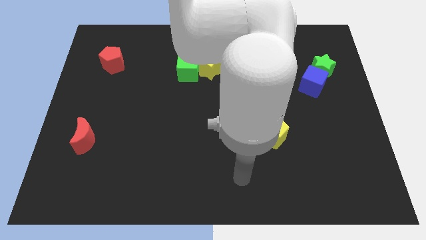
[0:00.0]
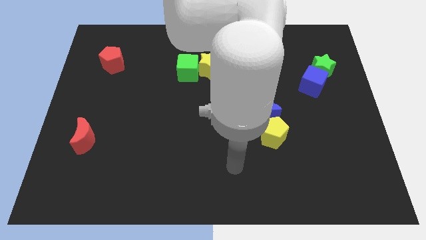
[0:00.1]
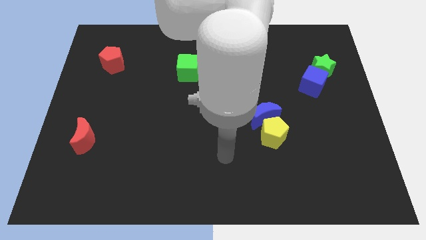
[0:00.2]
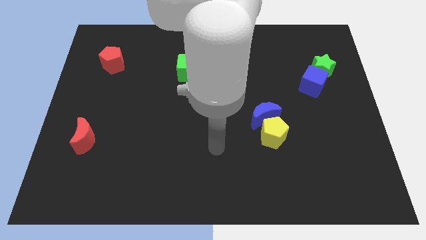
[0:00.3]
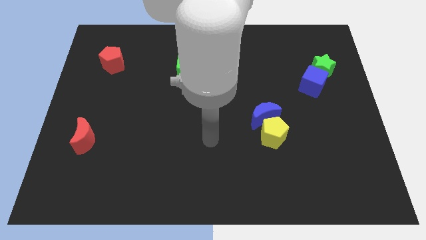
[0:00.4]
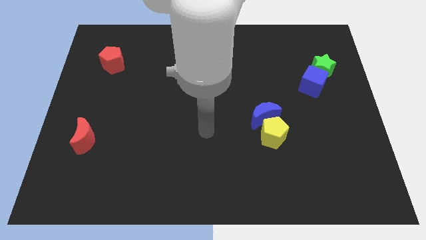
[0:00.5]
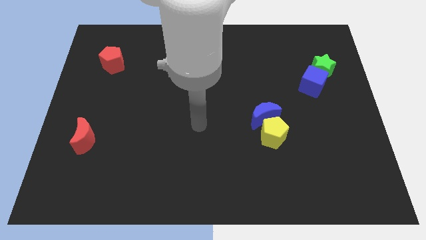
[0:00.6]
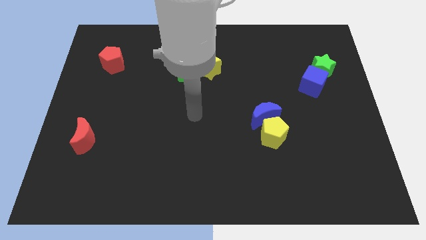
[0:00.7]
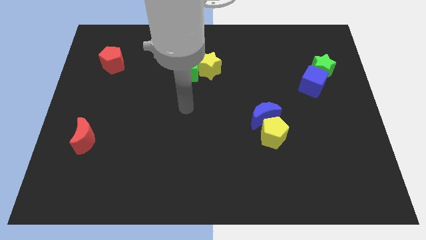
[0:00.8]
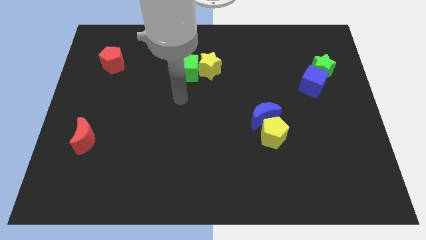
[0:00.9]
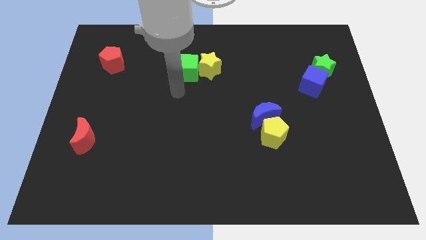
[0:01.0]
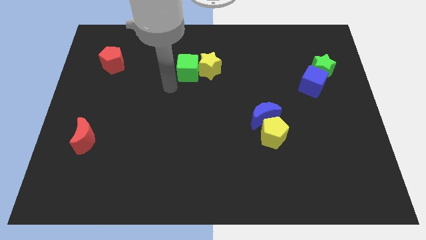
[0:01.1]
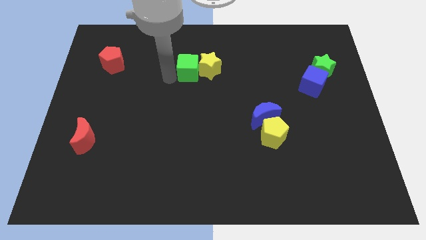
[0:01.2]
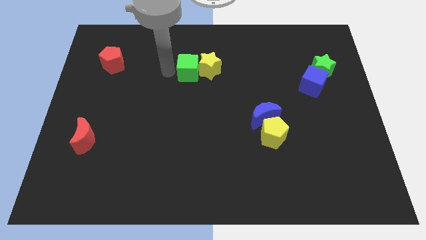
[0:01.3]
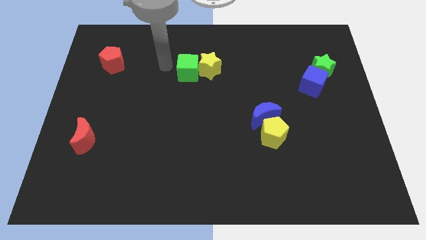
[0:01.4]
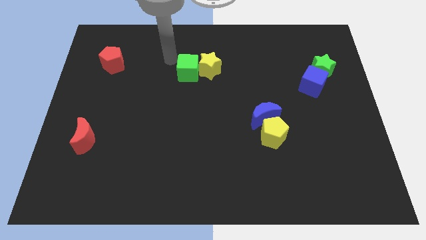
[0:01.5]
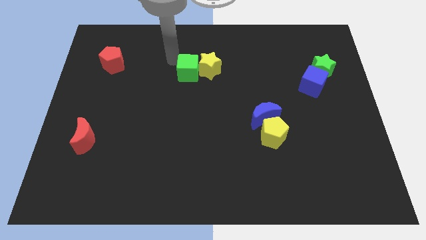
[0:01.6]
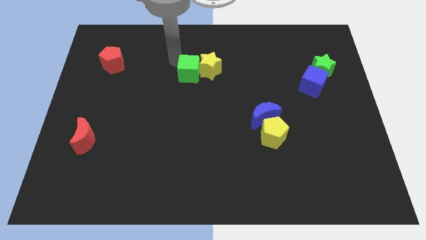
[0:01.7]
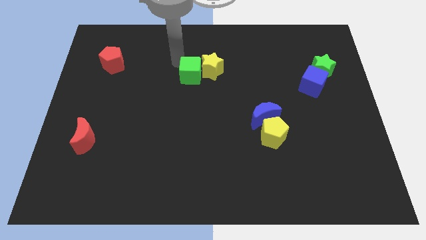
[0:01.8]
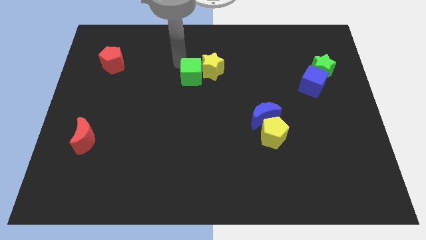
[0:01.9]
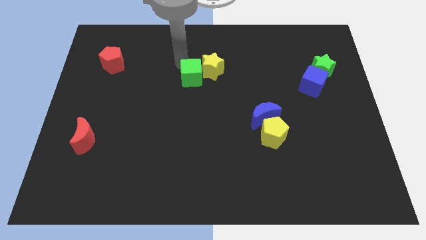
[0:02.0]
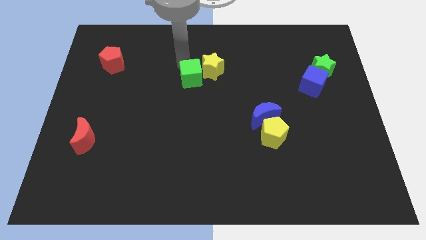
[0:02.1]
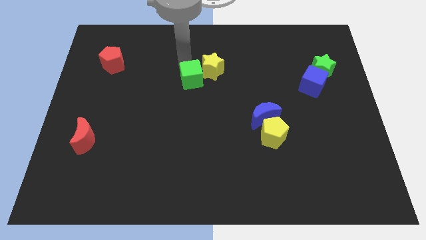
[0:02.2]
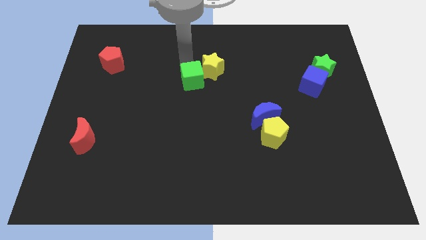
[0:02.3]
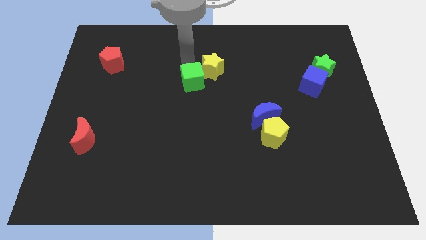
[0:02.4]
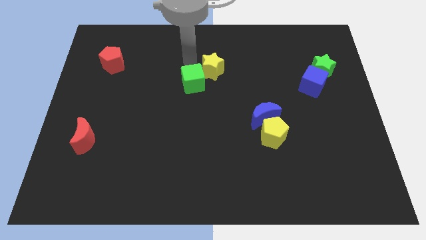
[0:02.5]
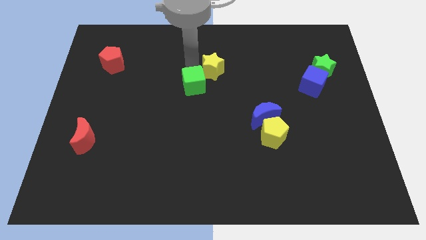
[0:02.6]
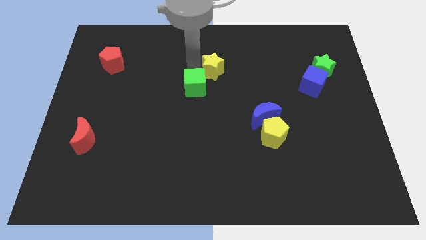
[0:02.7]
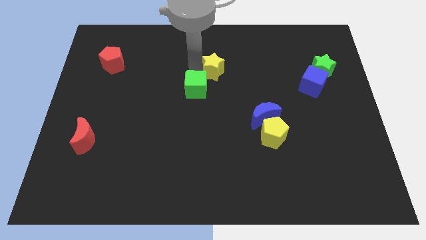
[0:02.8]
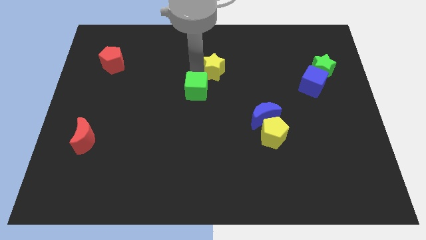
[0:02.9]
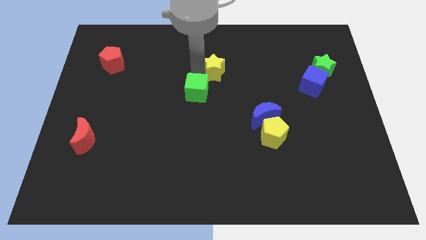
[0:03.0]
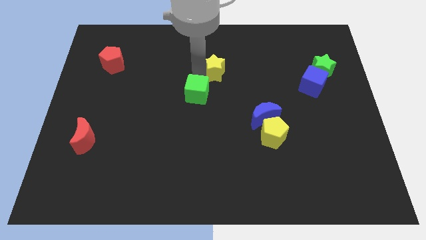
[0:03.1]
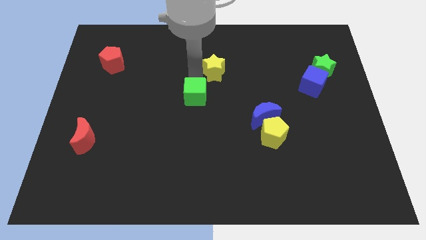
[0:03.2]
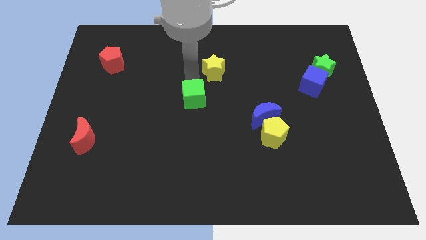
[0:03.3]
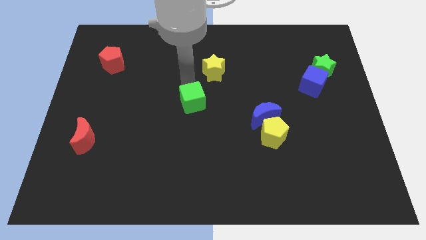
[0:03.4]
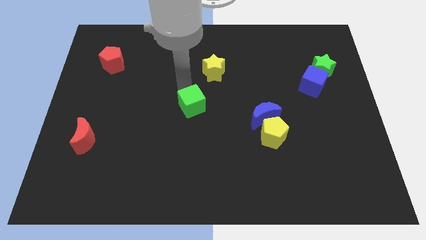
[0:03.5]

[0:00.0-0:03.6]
slightly slide the green cube downwards and to the right

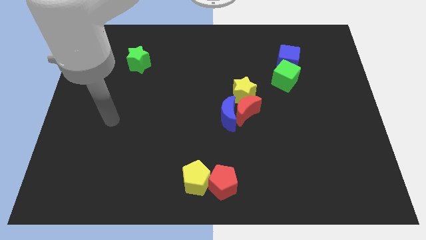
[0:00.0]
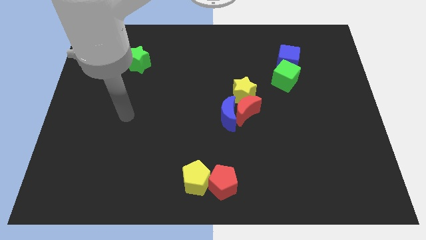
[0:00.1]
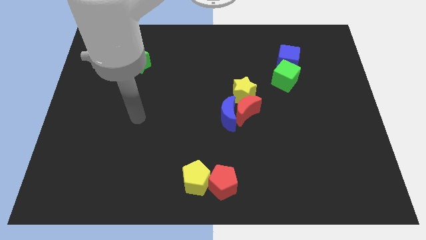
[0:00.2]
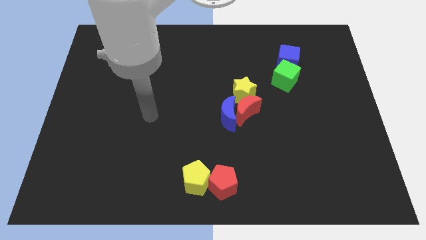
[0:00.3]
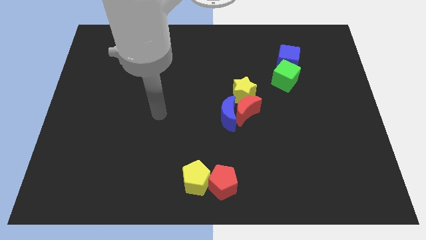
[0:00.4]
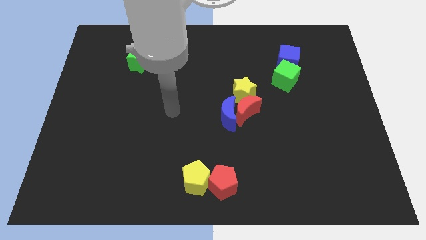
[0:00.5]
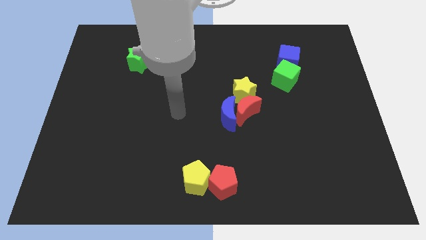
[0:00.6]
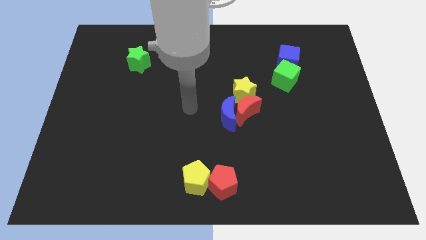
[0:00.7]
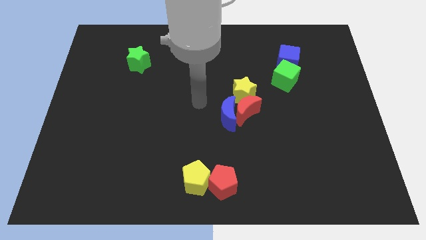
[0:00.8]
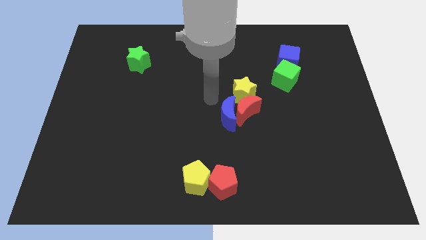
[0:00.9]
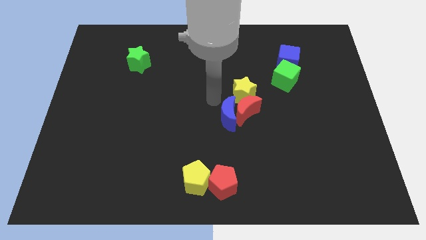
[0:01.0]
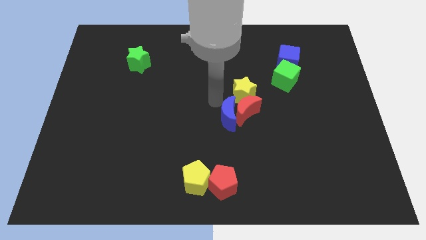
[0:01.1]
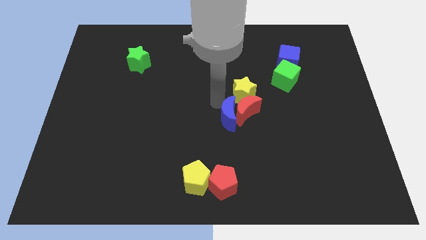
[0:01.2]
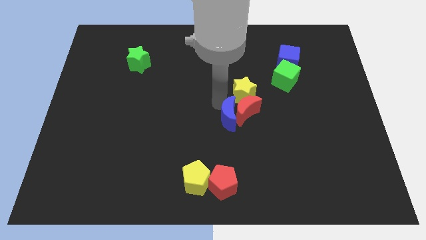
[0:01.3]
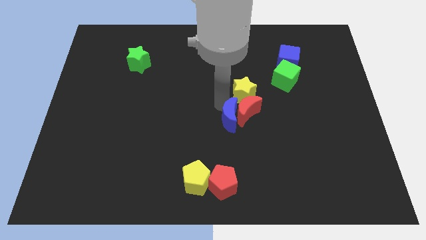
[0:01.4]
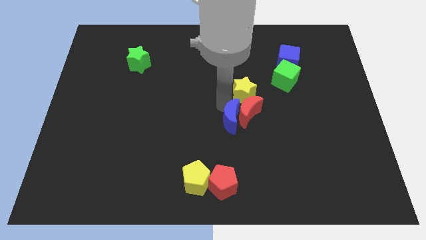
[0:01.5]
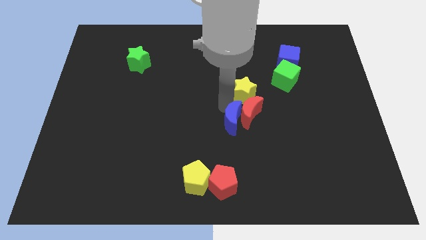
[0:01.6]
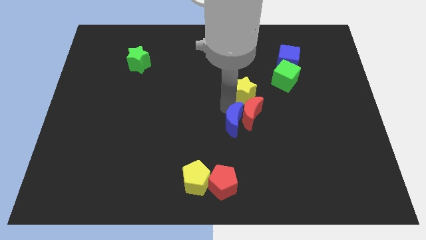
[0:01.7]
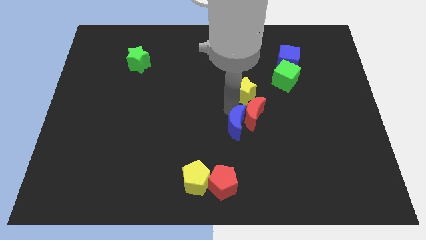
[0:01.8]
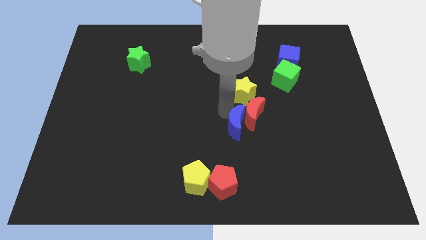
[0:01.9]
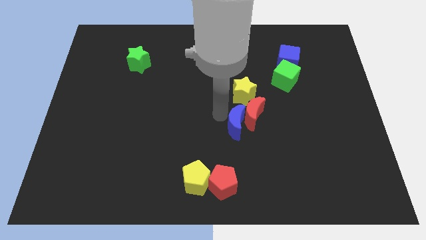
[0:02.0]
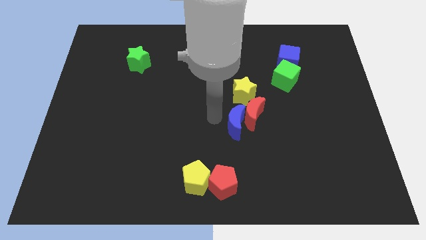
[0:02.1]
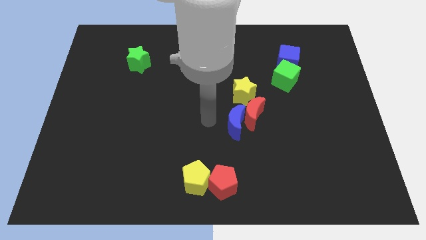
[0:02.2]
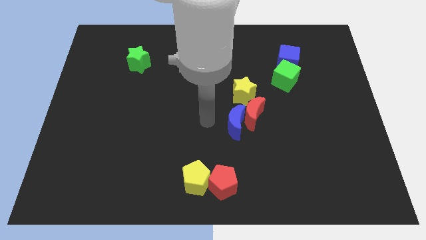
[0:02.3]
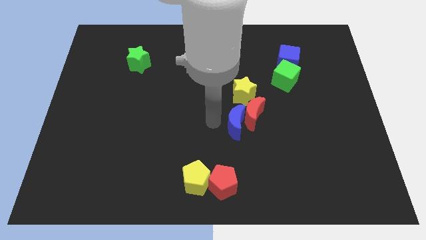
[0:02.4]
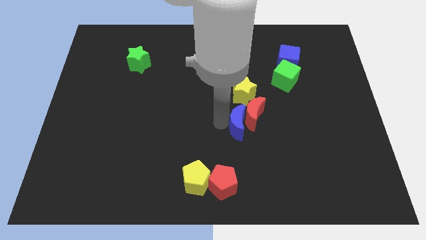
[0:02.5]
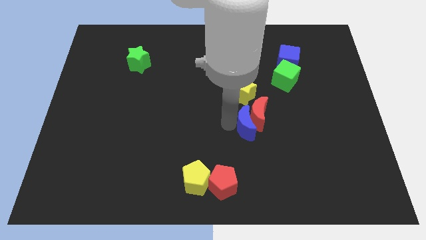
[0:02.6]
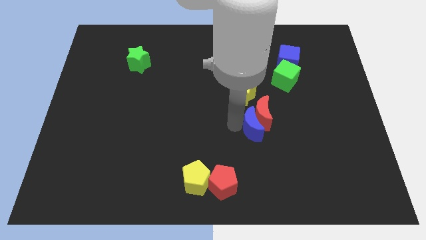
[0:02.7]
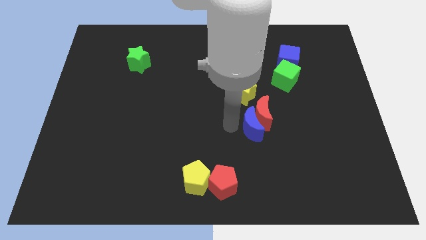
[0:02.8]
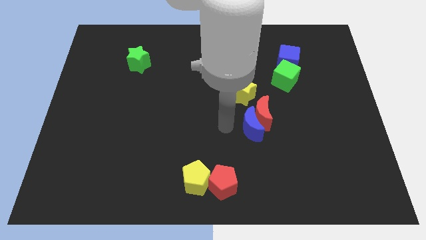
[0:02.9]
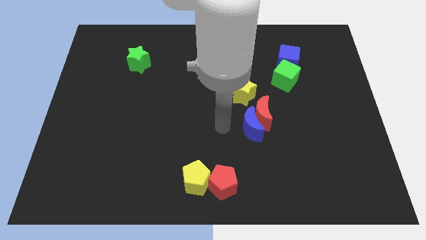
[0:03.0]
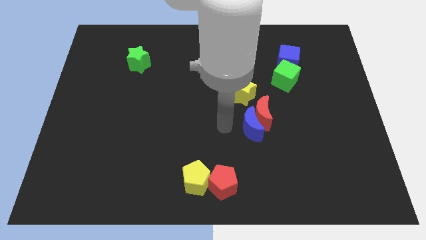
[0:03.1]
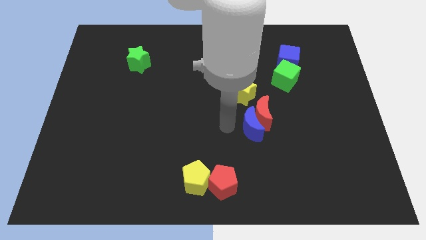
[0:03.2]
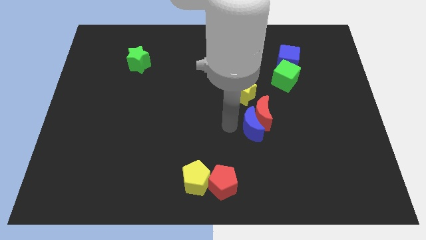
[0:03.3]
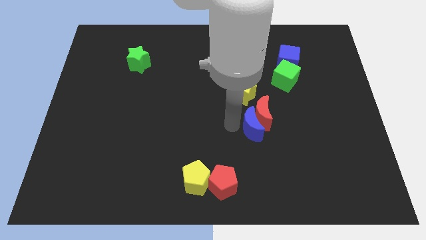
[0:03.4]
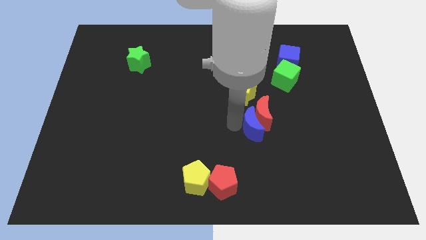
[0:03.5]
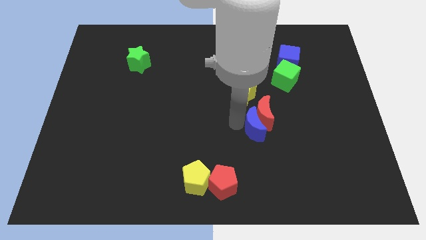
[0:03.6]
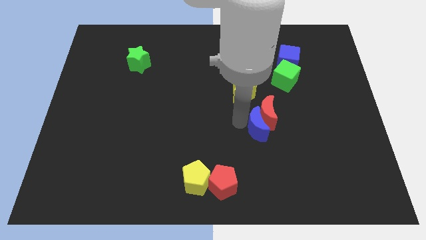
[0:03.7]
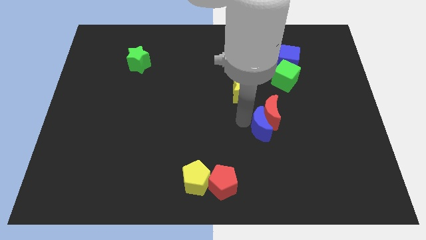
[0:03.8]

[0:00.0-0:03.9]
move the blue moon somewhat to the right

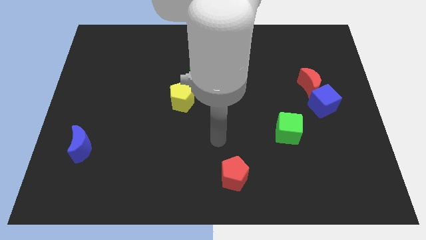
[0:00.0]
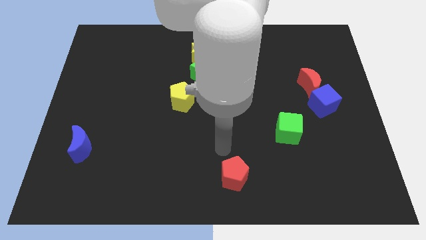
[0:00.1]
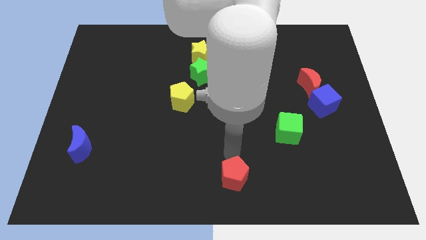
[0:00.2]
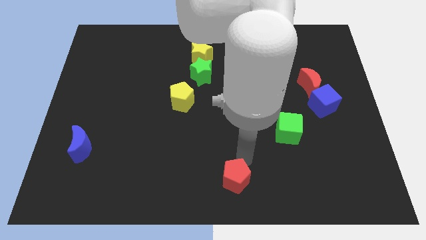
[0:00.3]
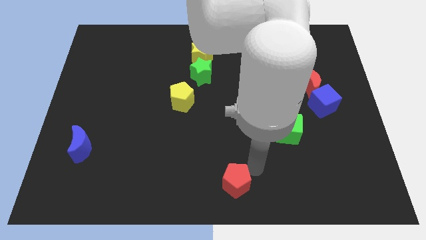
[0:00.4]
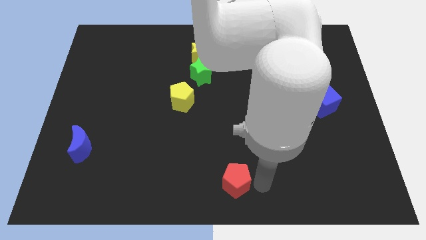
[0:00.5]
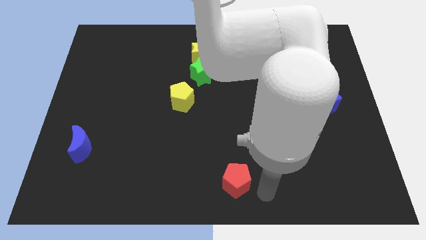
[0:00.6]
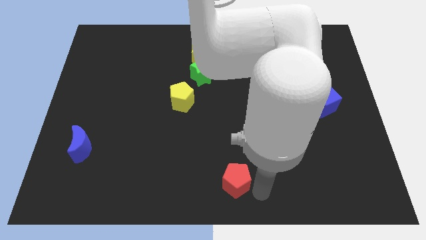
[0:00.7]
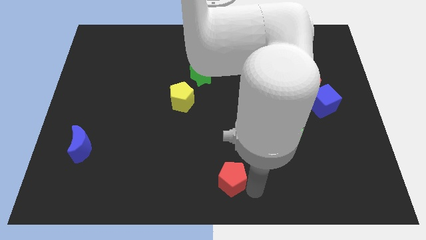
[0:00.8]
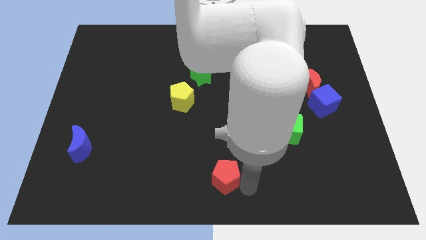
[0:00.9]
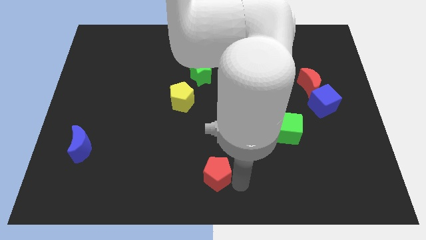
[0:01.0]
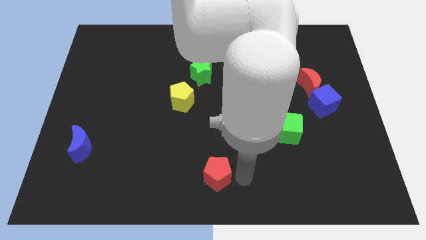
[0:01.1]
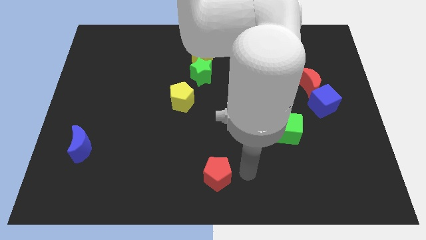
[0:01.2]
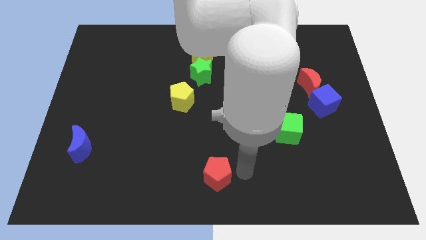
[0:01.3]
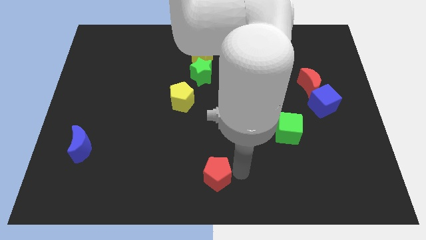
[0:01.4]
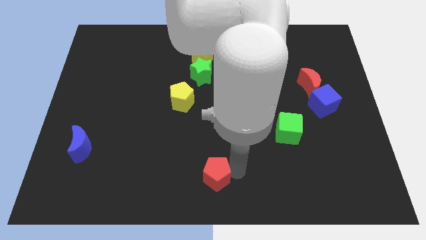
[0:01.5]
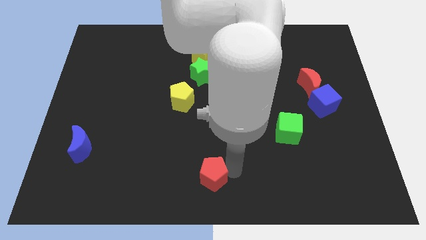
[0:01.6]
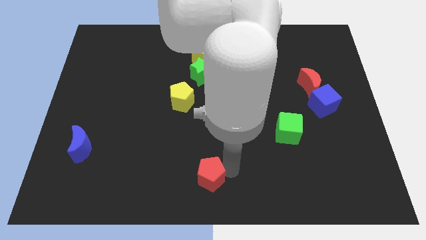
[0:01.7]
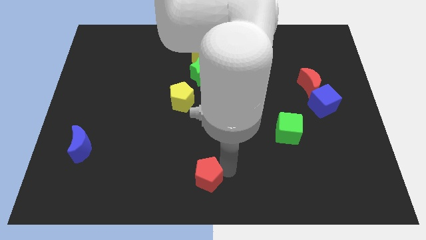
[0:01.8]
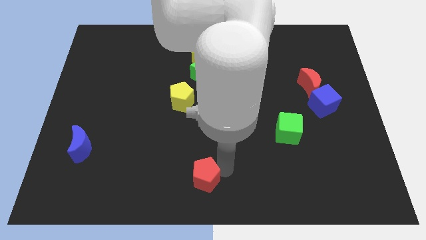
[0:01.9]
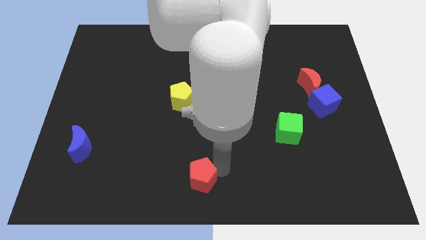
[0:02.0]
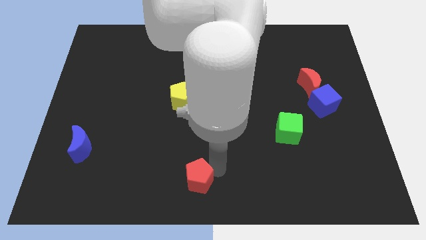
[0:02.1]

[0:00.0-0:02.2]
slightly slide the red pentagon left
